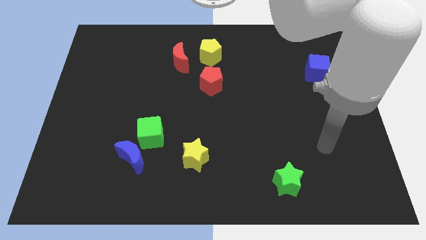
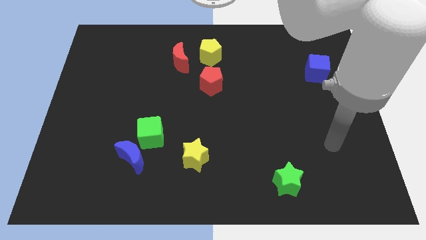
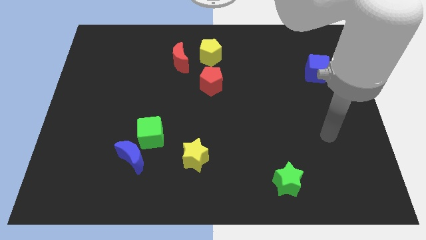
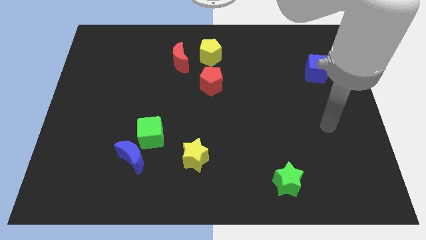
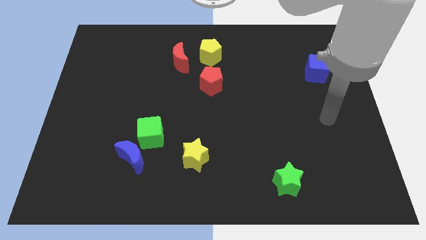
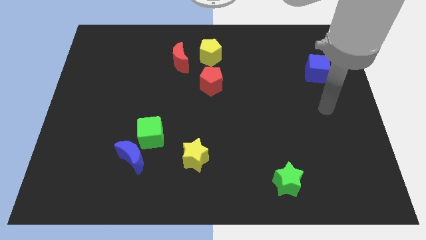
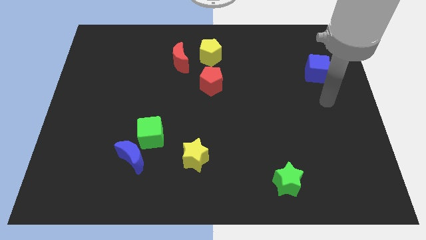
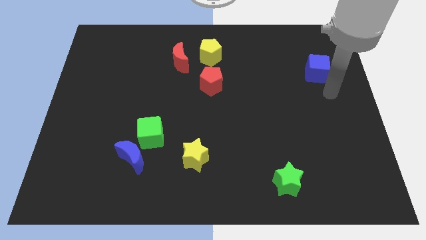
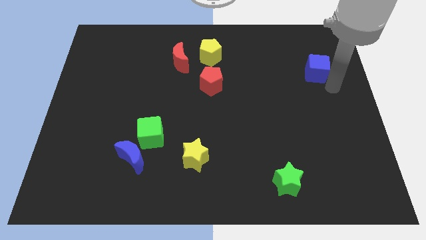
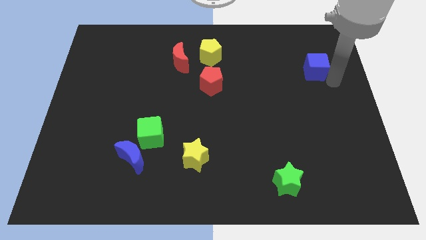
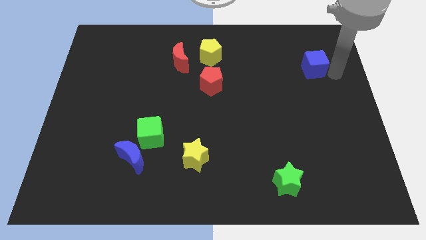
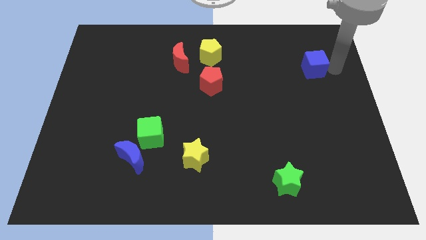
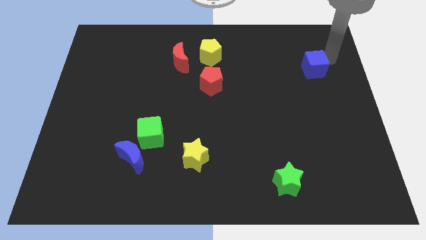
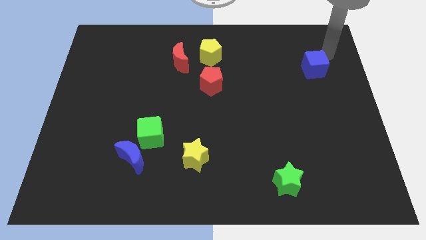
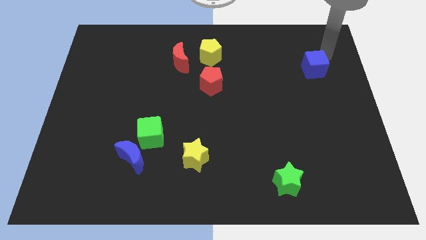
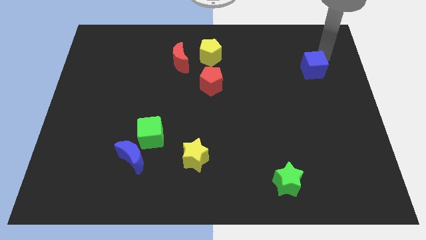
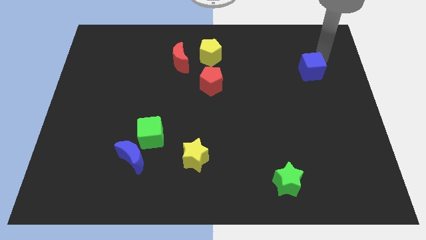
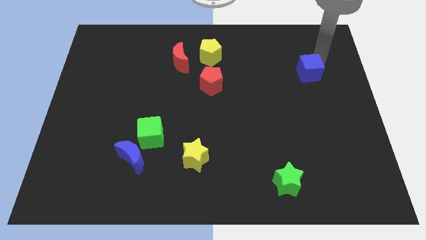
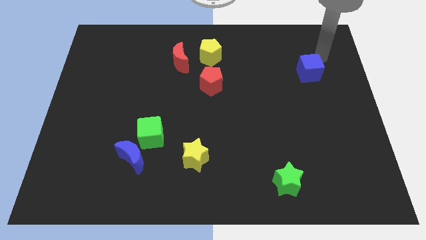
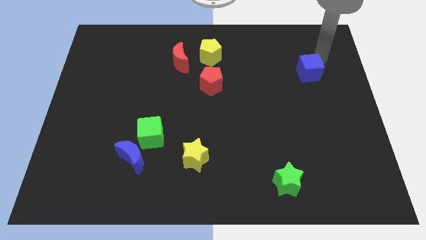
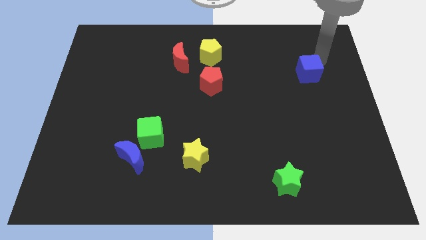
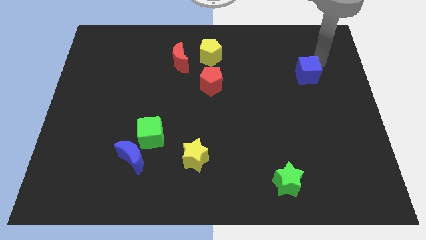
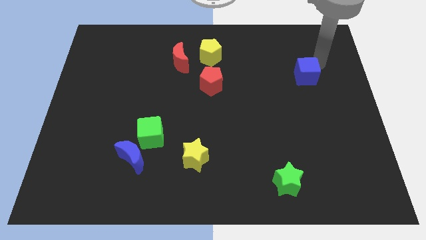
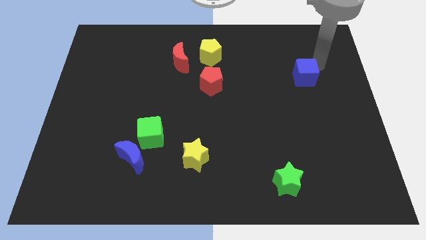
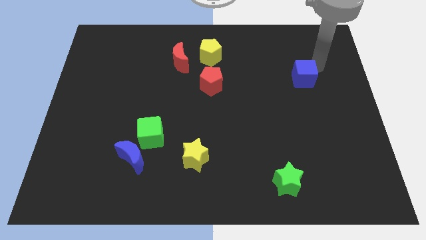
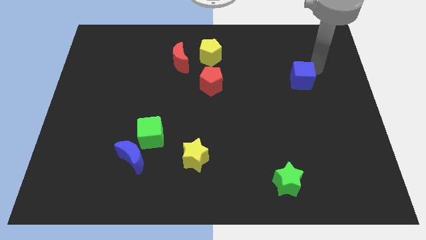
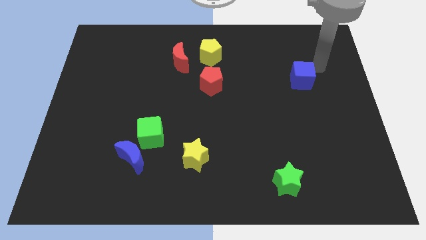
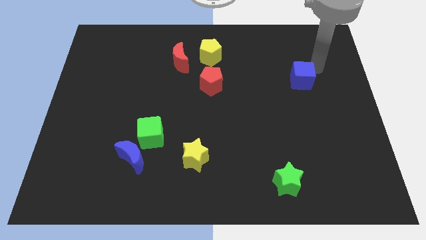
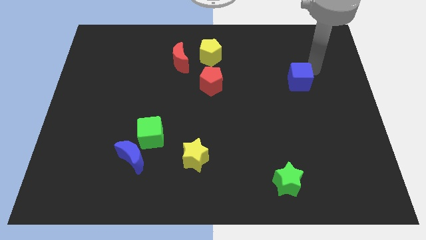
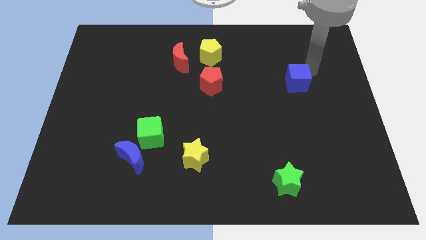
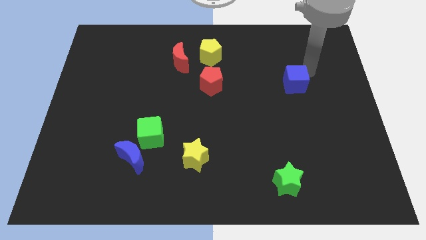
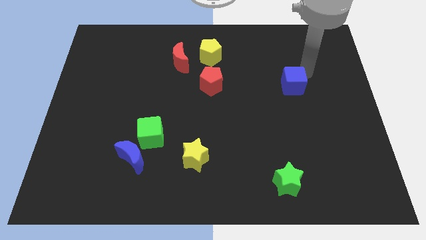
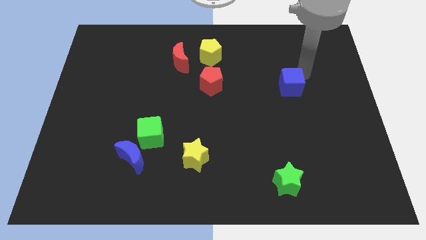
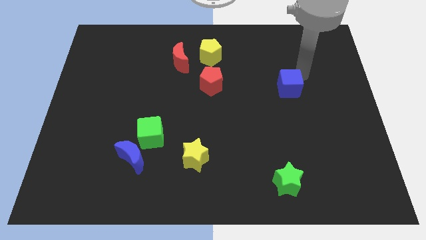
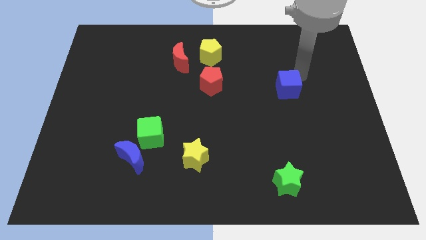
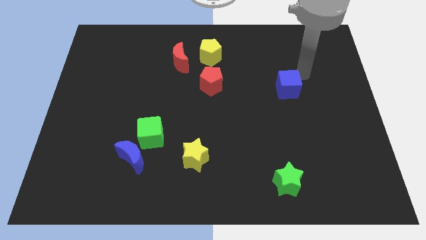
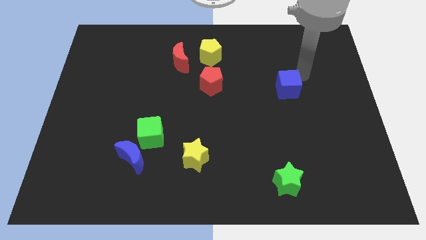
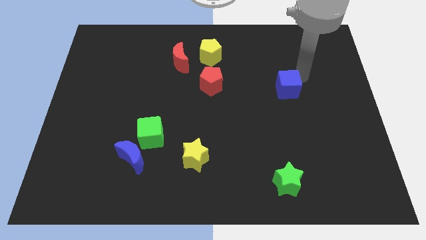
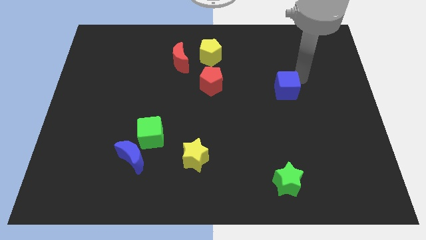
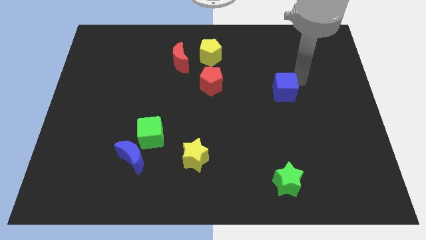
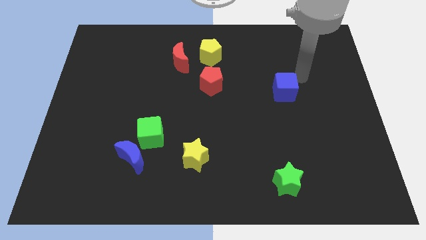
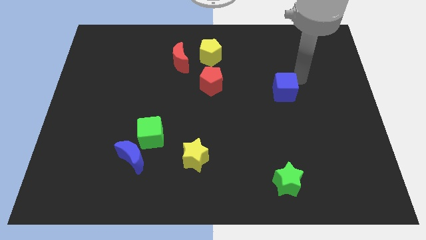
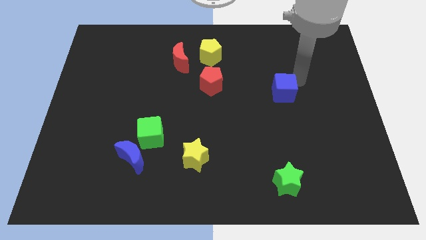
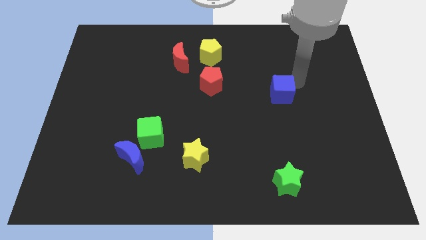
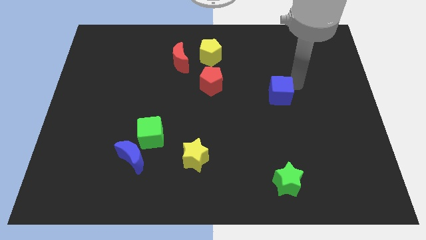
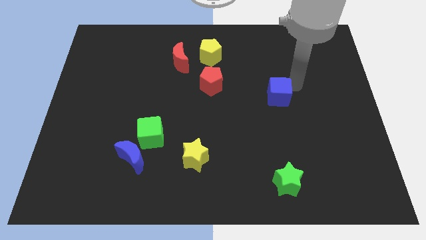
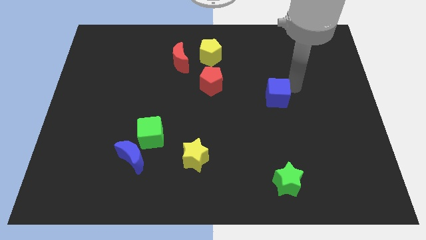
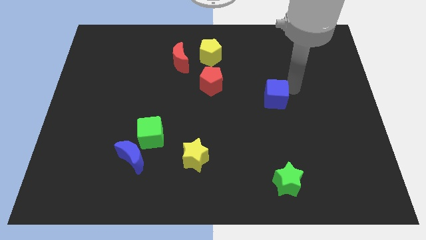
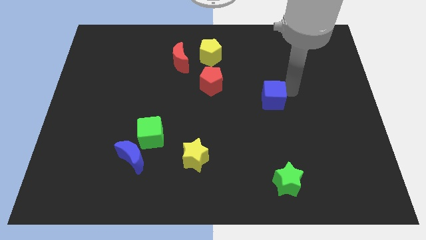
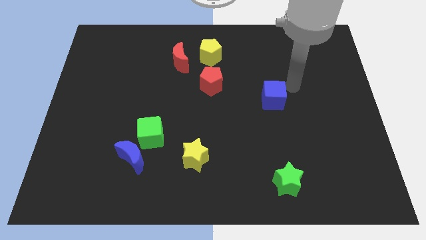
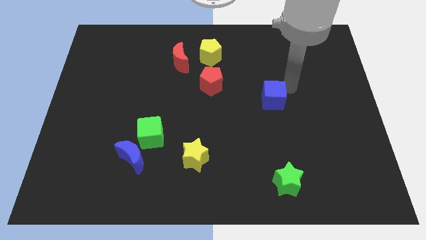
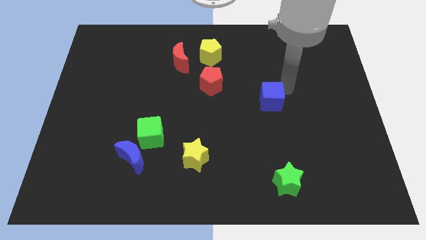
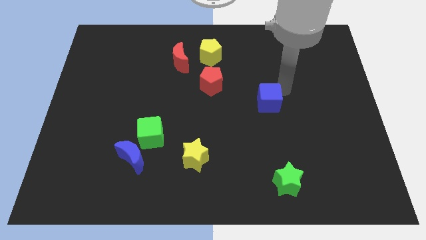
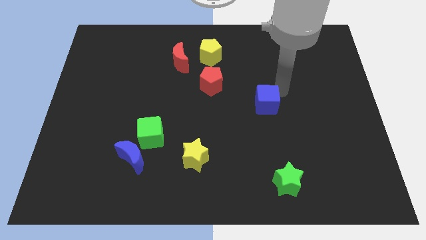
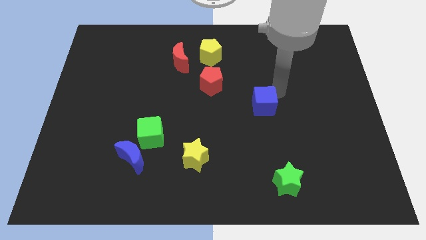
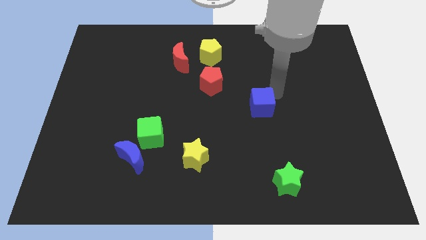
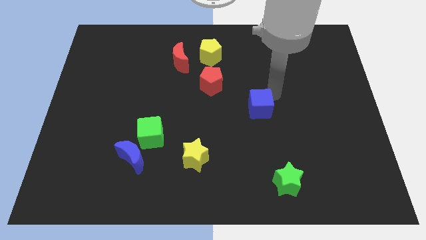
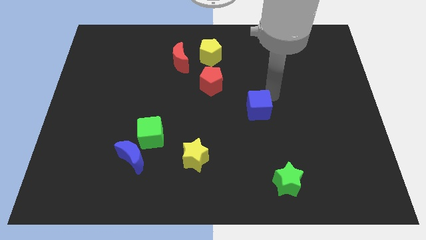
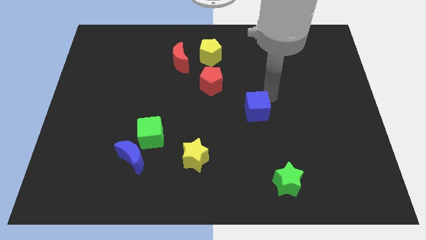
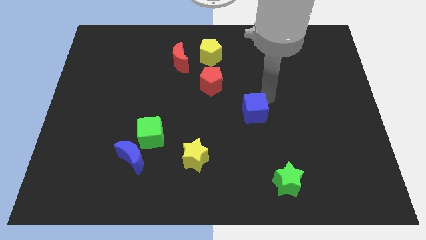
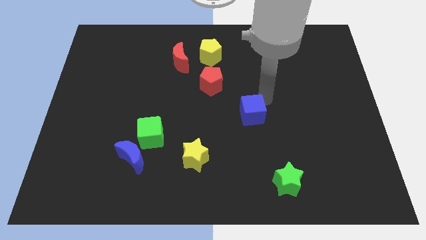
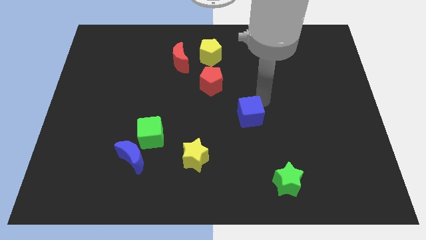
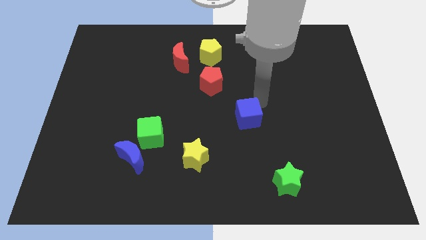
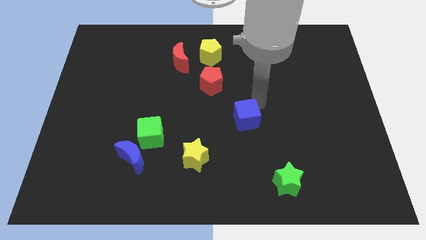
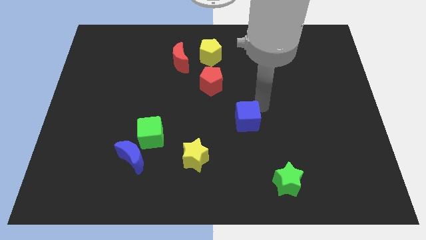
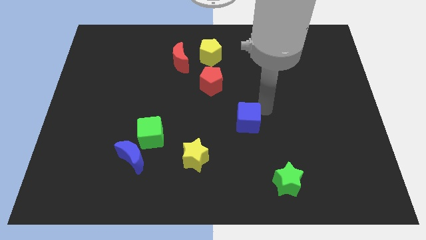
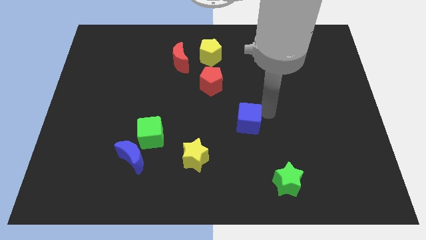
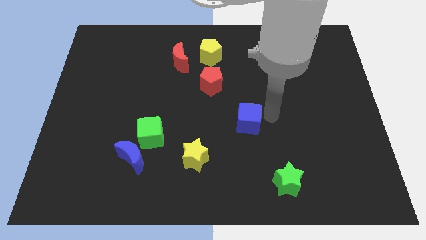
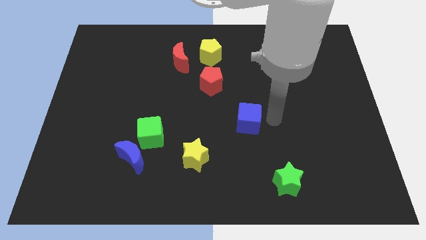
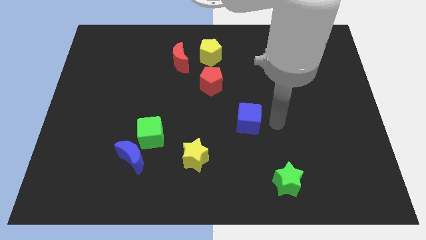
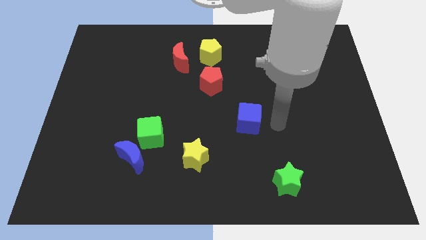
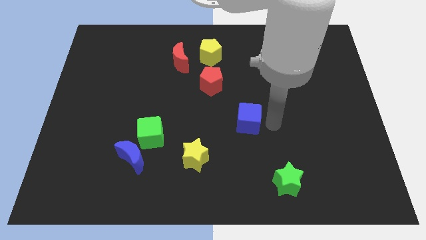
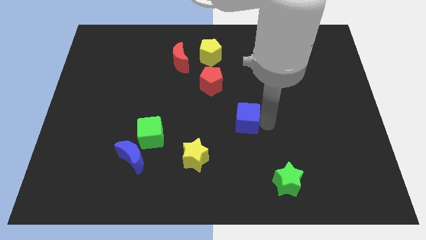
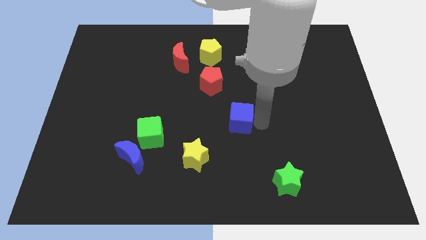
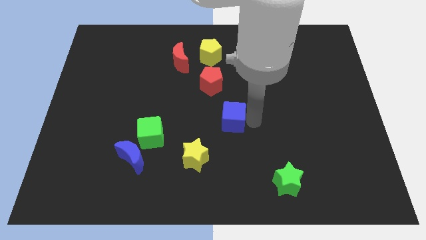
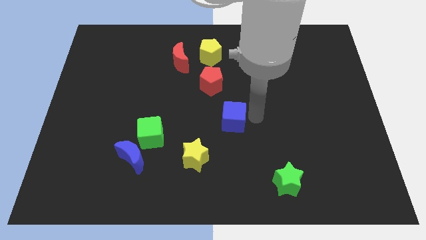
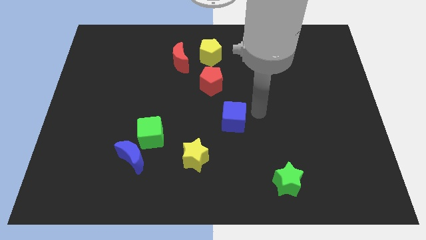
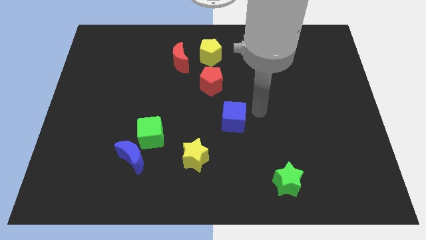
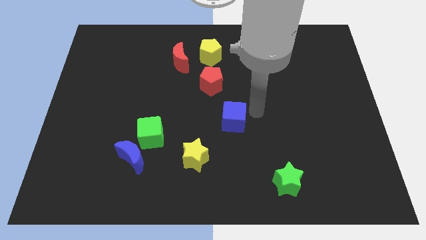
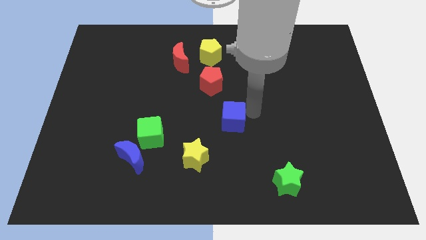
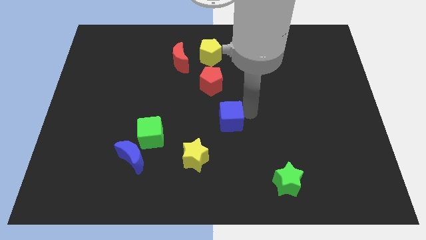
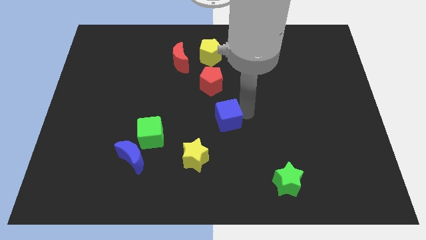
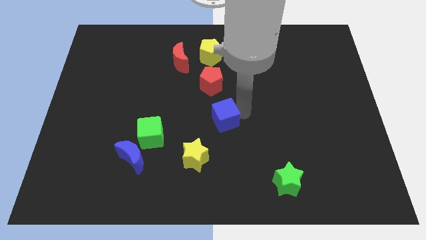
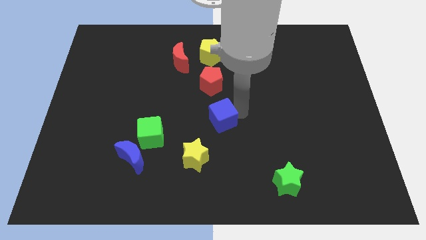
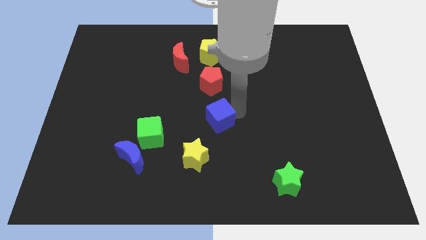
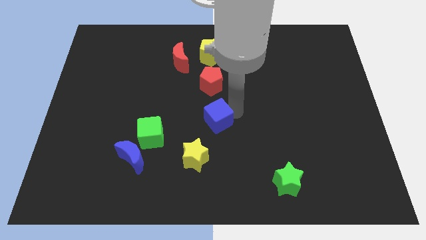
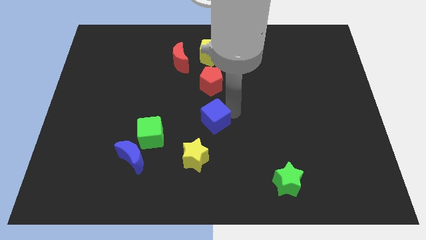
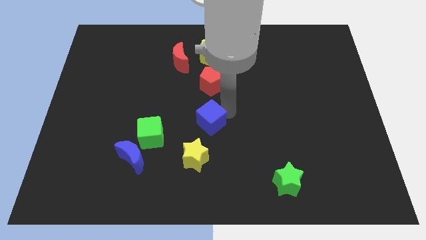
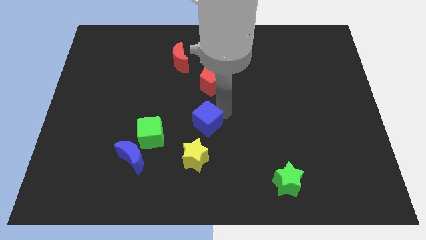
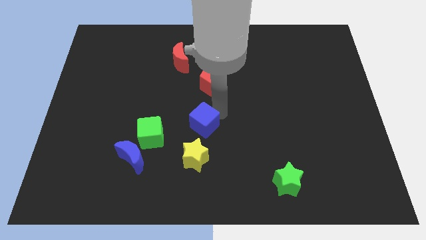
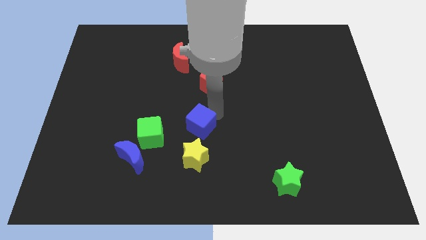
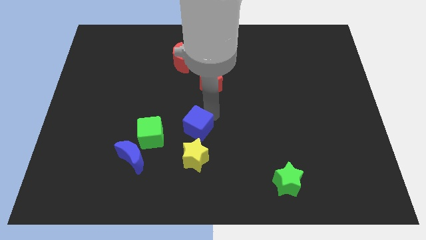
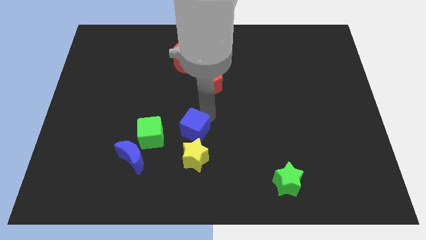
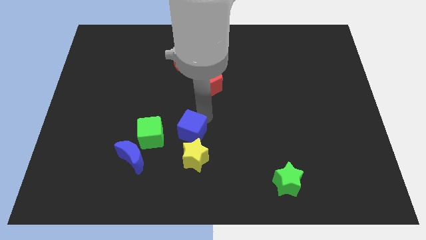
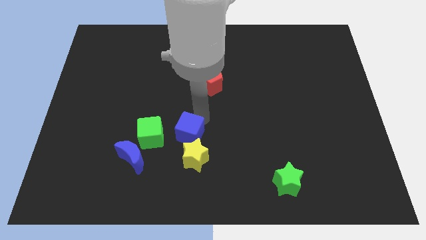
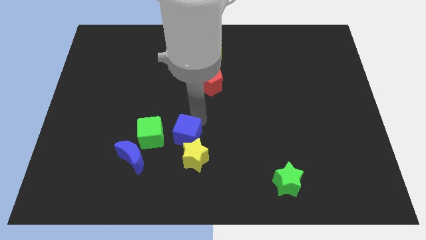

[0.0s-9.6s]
move the blue cube towards the yellow star
